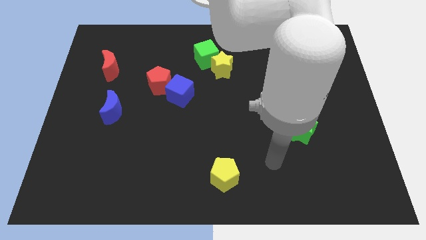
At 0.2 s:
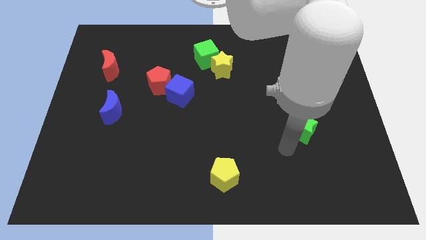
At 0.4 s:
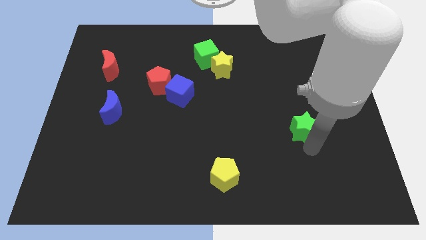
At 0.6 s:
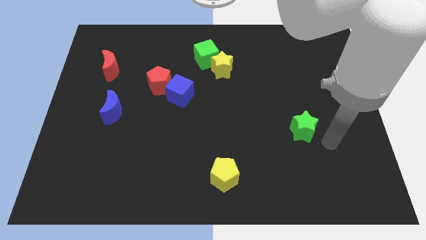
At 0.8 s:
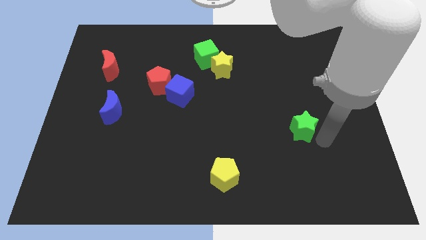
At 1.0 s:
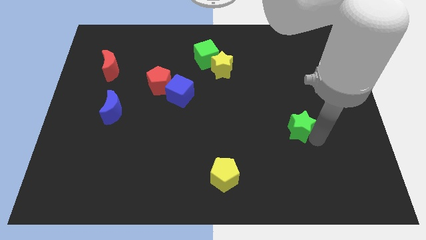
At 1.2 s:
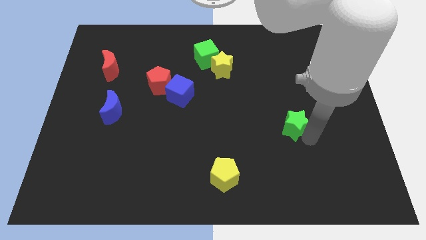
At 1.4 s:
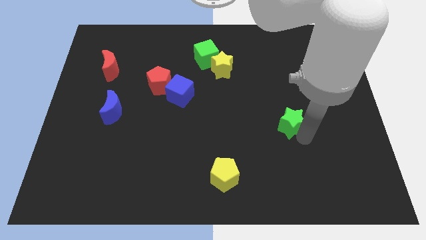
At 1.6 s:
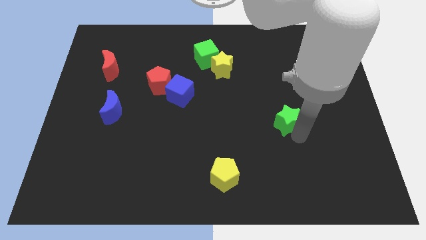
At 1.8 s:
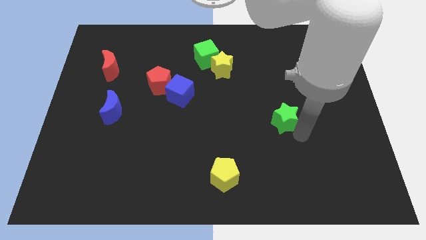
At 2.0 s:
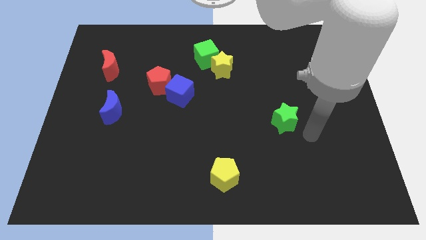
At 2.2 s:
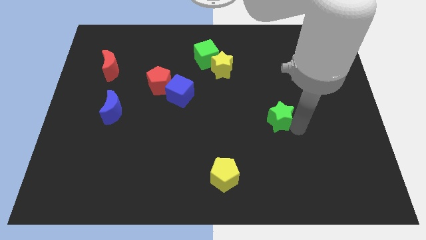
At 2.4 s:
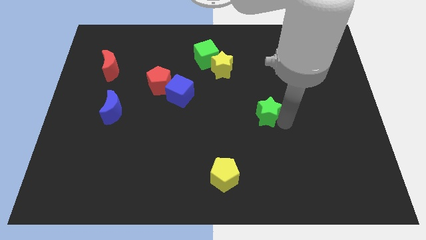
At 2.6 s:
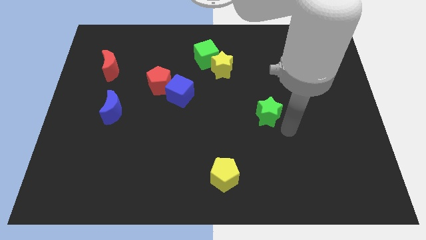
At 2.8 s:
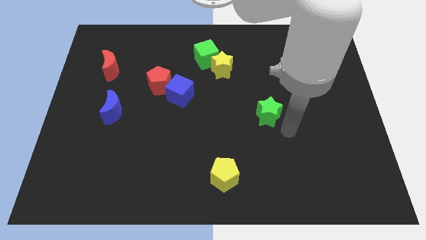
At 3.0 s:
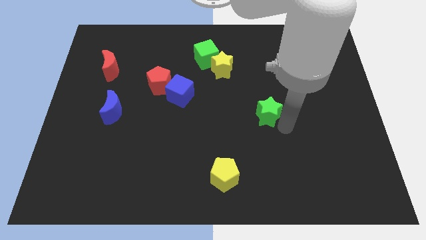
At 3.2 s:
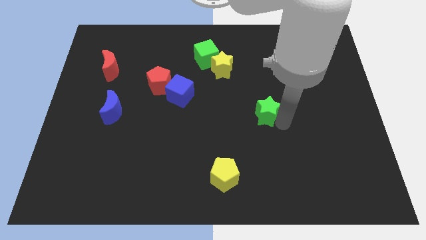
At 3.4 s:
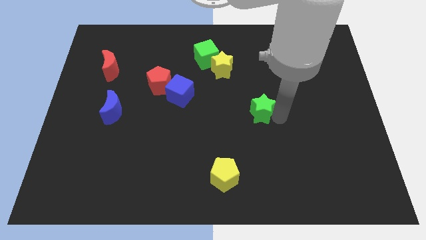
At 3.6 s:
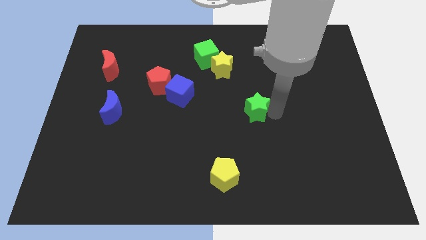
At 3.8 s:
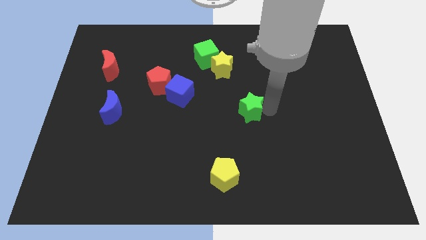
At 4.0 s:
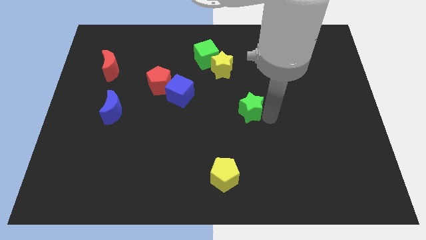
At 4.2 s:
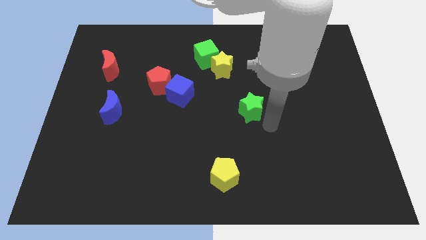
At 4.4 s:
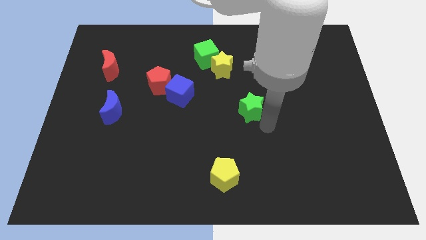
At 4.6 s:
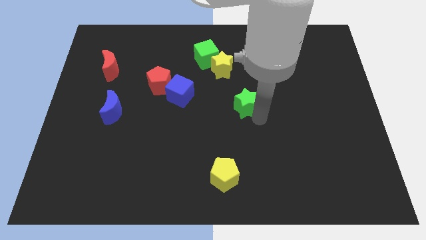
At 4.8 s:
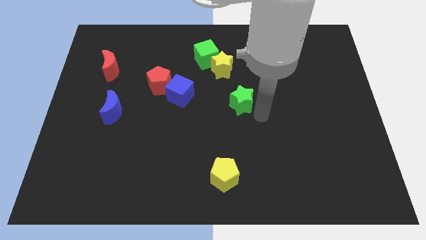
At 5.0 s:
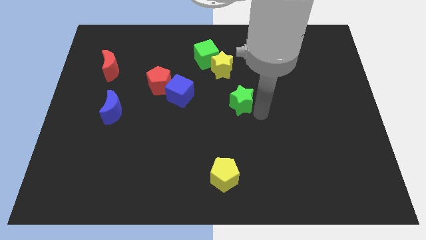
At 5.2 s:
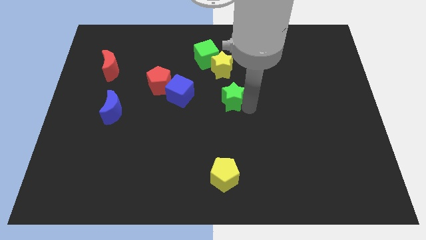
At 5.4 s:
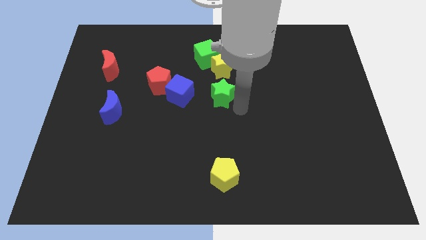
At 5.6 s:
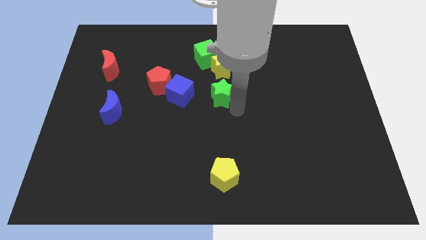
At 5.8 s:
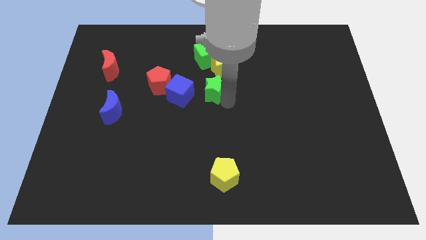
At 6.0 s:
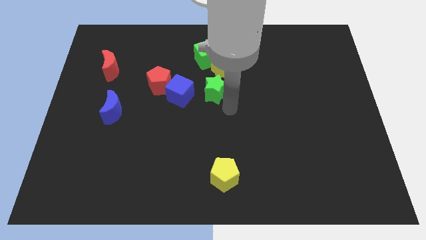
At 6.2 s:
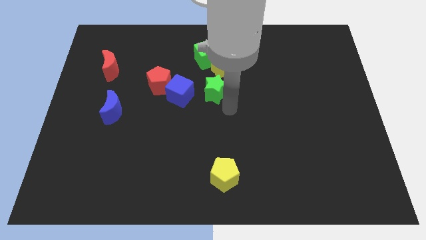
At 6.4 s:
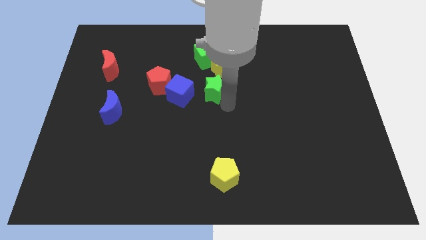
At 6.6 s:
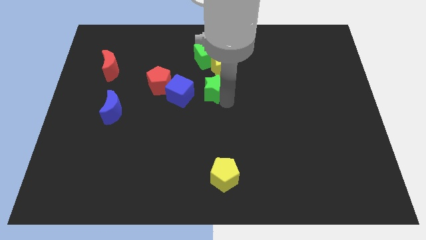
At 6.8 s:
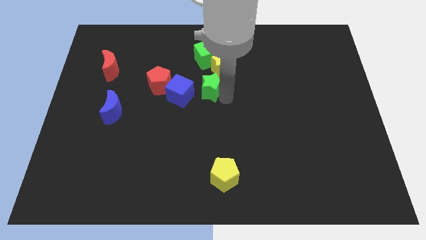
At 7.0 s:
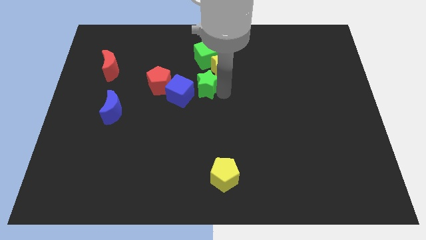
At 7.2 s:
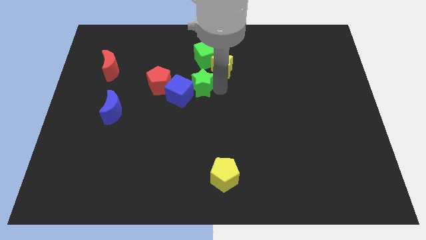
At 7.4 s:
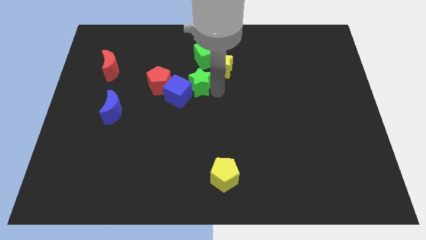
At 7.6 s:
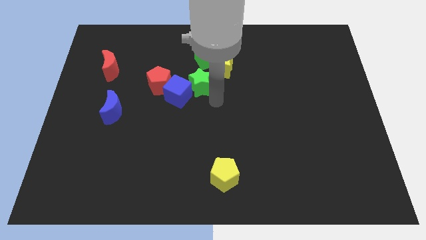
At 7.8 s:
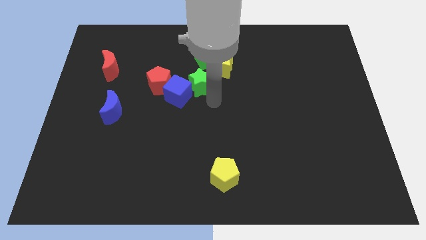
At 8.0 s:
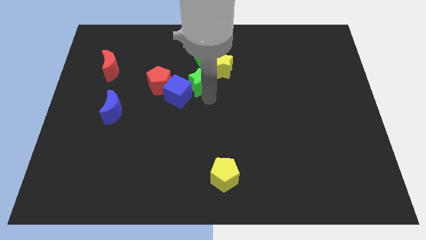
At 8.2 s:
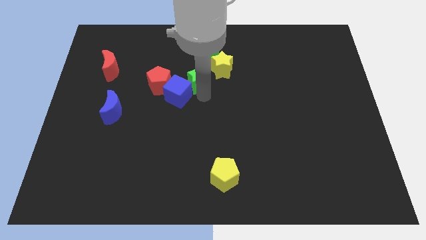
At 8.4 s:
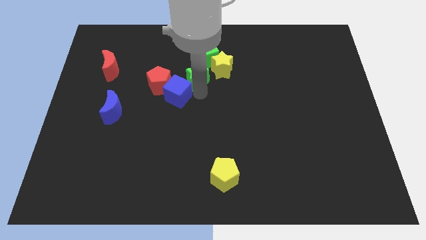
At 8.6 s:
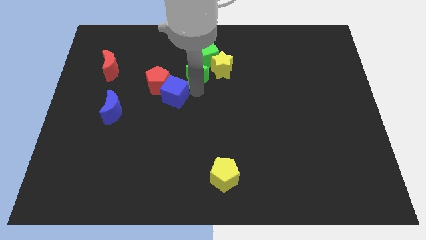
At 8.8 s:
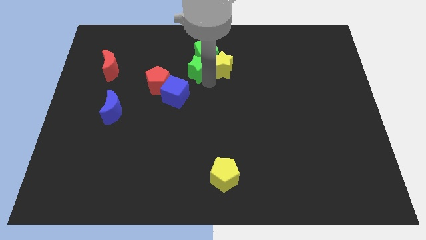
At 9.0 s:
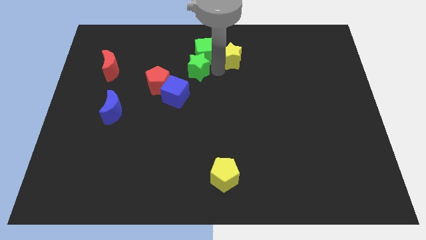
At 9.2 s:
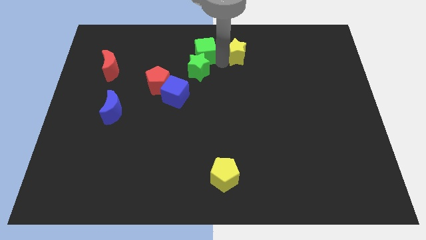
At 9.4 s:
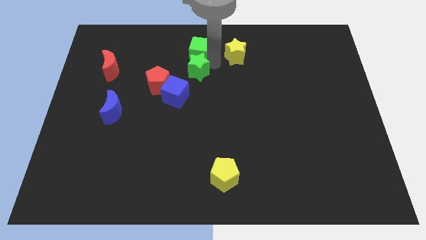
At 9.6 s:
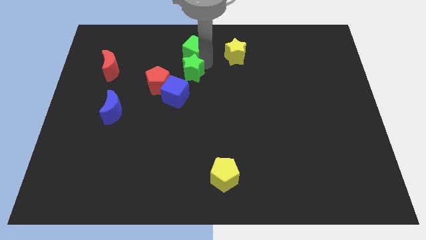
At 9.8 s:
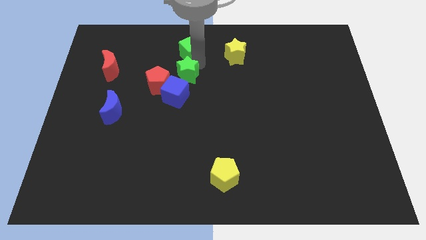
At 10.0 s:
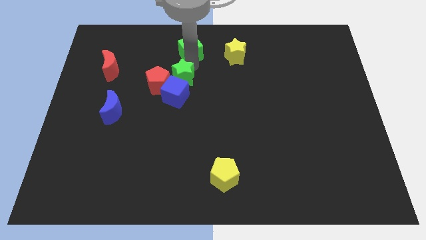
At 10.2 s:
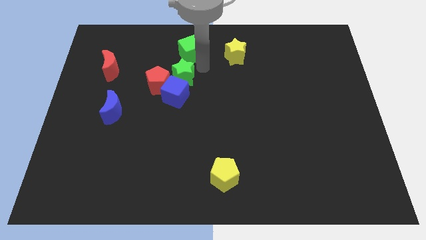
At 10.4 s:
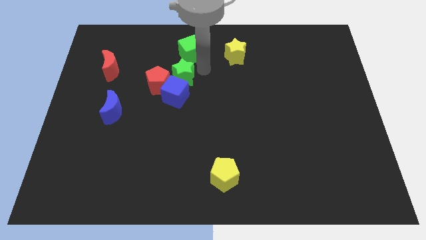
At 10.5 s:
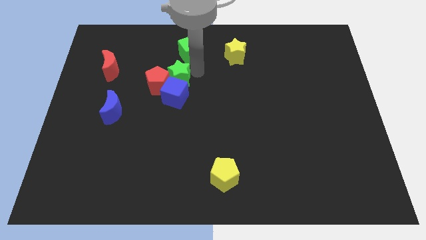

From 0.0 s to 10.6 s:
put the green star next to the red pentagon

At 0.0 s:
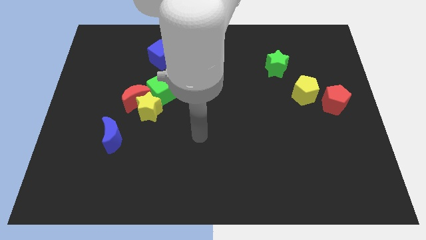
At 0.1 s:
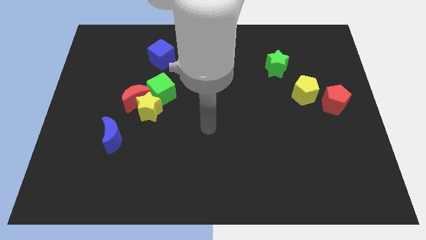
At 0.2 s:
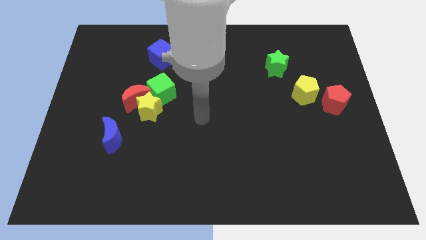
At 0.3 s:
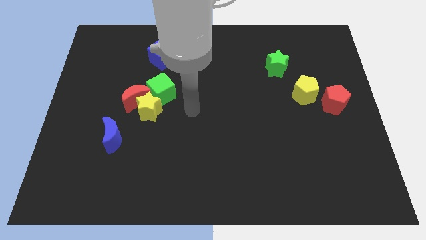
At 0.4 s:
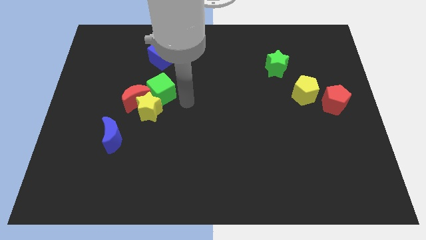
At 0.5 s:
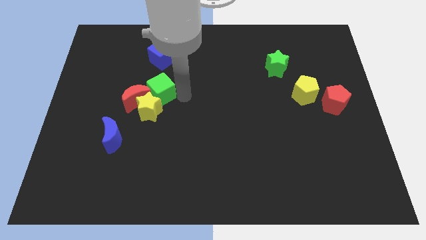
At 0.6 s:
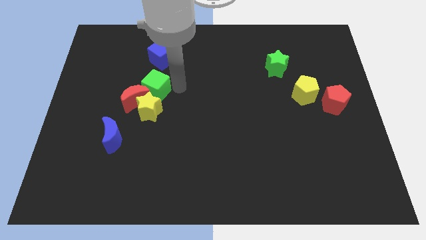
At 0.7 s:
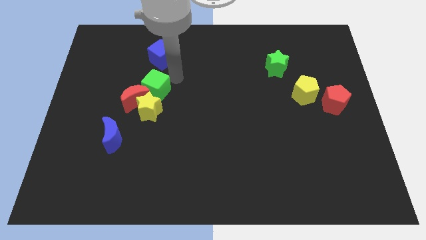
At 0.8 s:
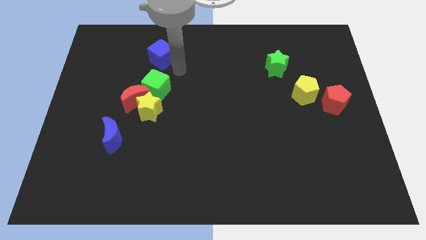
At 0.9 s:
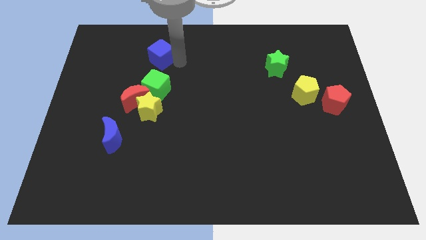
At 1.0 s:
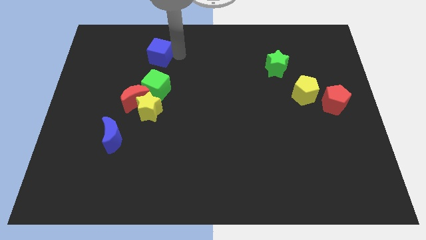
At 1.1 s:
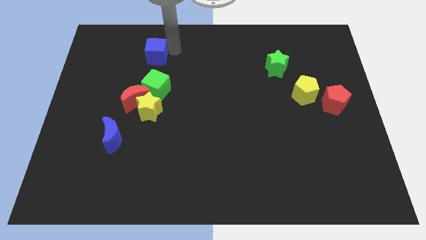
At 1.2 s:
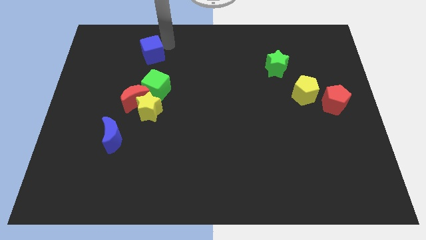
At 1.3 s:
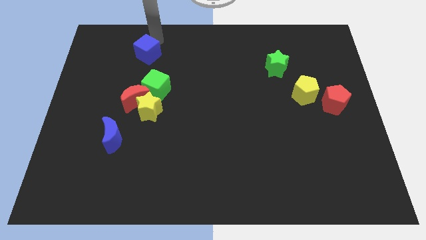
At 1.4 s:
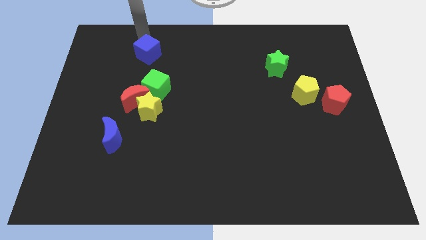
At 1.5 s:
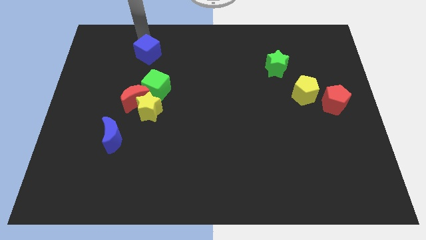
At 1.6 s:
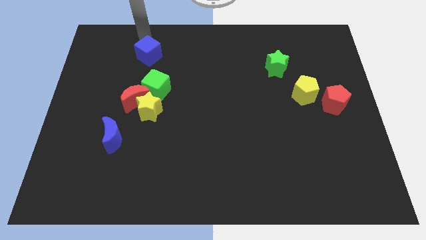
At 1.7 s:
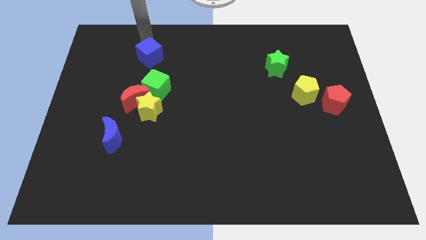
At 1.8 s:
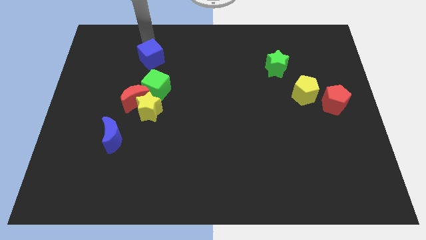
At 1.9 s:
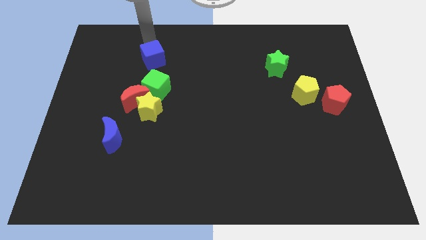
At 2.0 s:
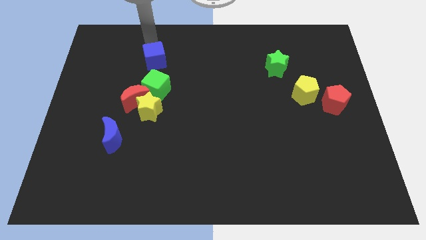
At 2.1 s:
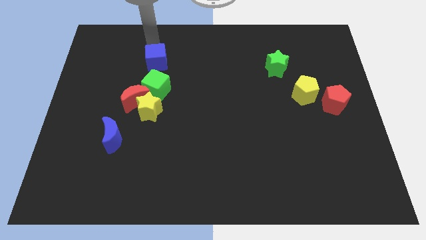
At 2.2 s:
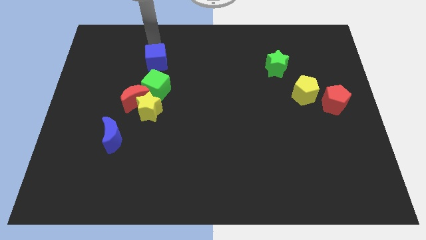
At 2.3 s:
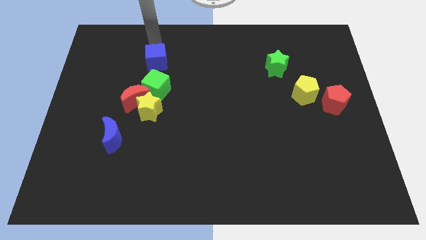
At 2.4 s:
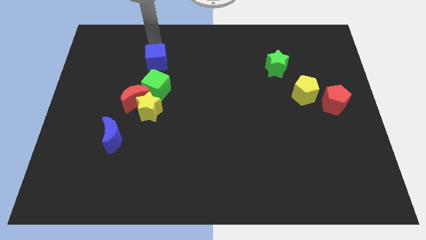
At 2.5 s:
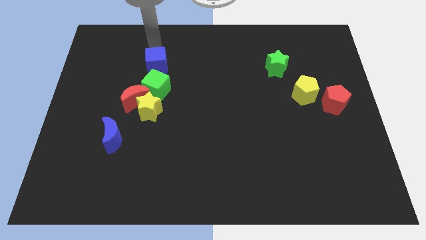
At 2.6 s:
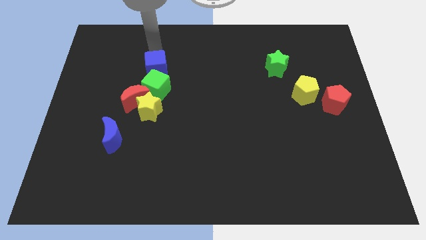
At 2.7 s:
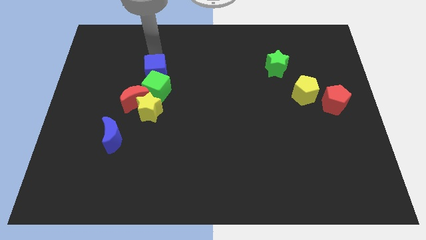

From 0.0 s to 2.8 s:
put the blue cube towards the green cube
